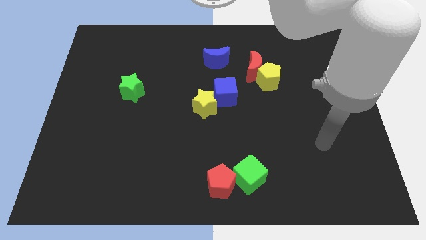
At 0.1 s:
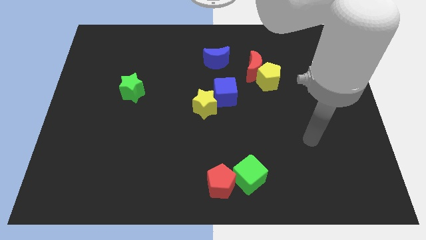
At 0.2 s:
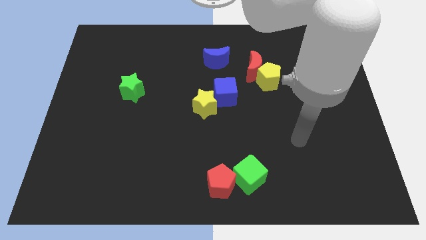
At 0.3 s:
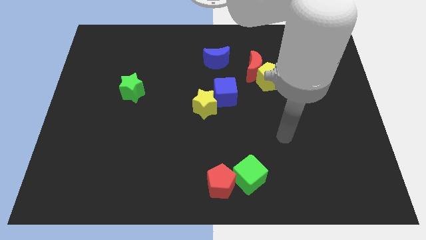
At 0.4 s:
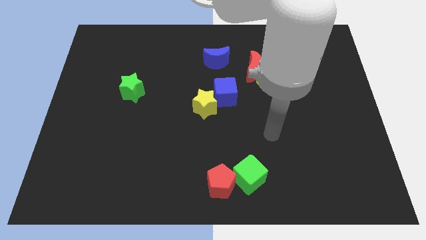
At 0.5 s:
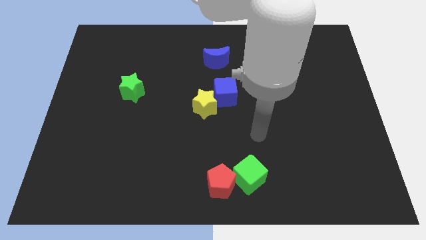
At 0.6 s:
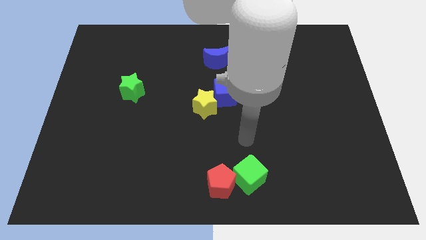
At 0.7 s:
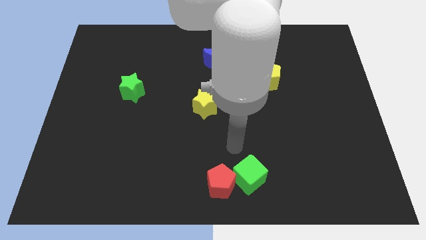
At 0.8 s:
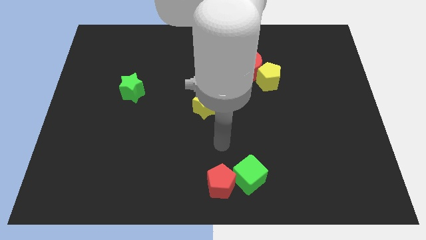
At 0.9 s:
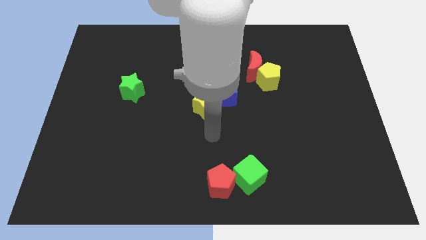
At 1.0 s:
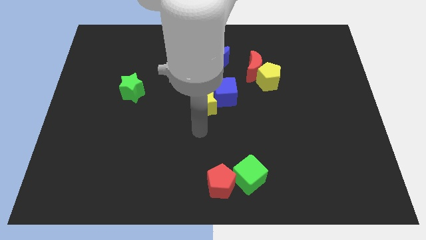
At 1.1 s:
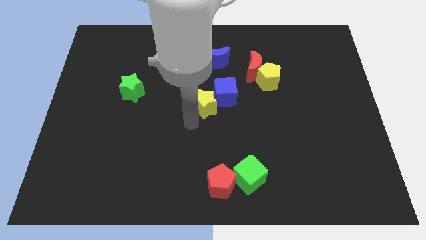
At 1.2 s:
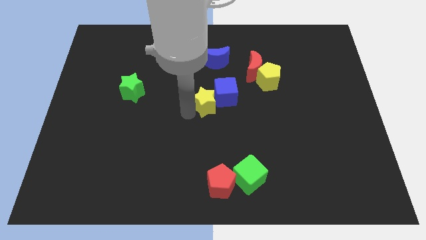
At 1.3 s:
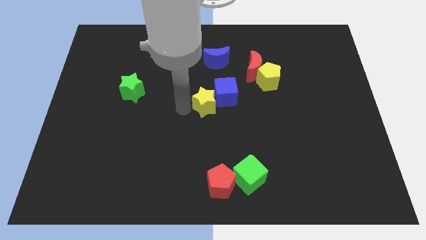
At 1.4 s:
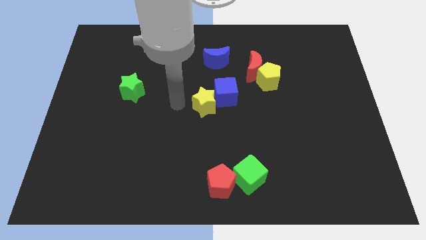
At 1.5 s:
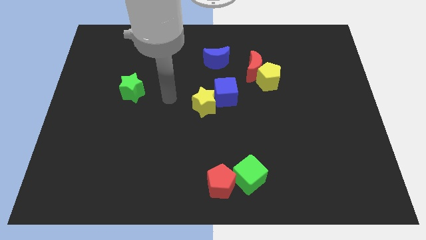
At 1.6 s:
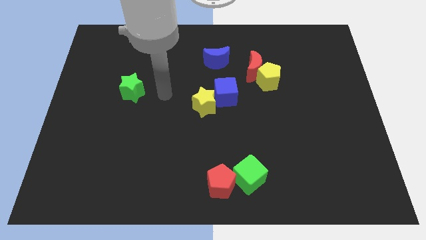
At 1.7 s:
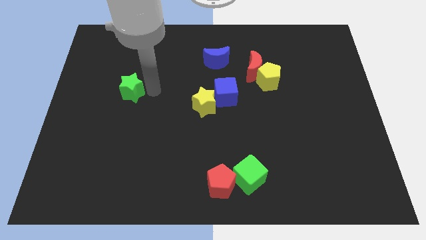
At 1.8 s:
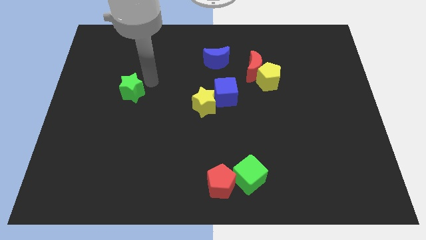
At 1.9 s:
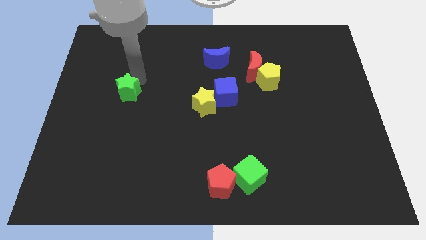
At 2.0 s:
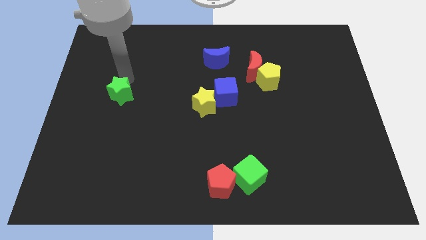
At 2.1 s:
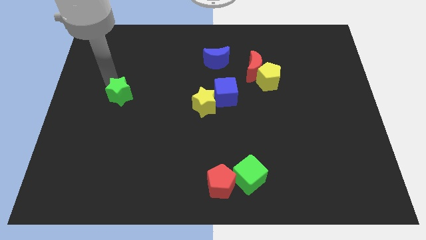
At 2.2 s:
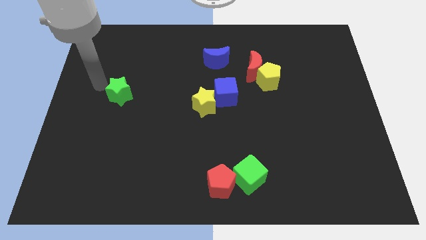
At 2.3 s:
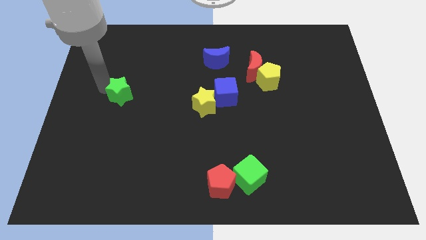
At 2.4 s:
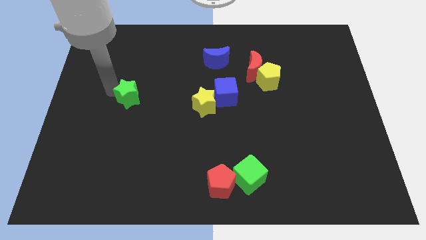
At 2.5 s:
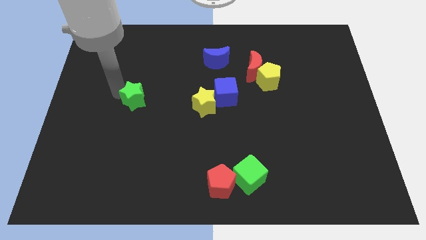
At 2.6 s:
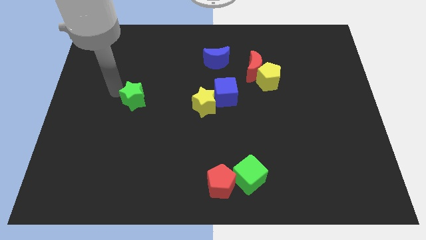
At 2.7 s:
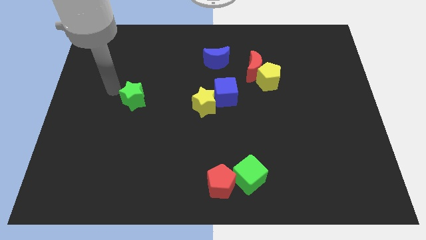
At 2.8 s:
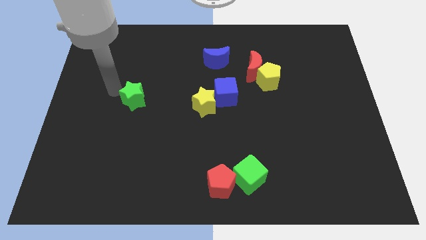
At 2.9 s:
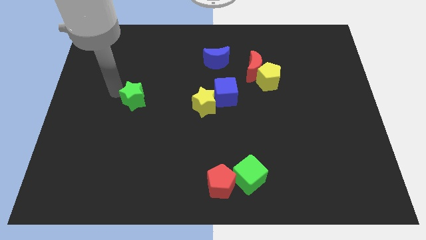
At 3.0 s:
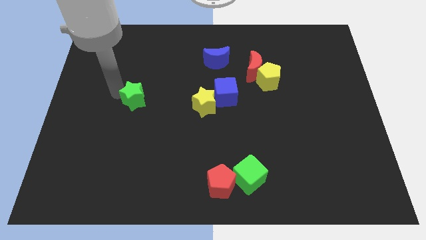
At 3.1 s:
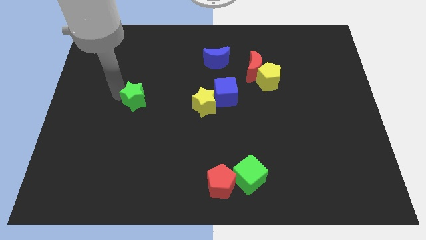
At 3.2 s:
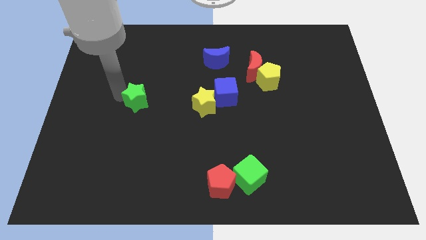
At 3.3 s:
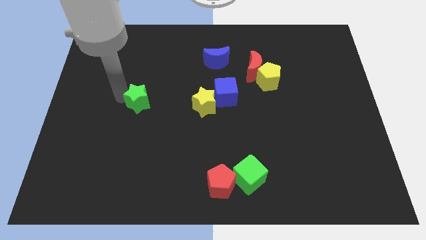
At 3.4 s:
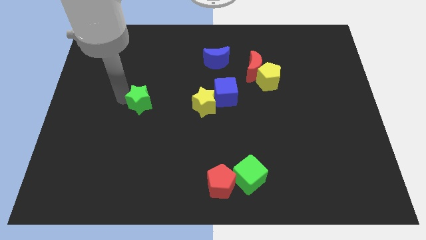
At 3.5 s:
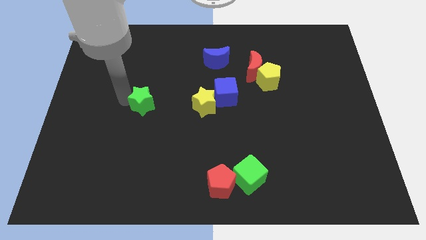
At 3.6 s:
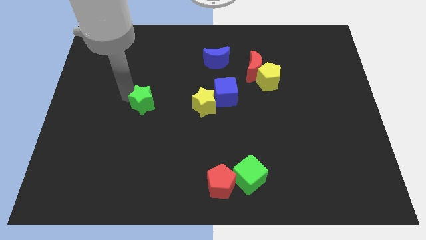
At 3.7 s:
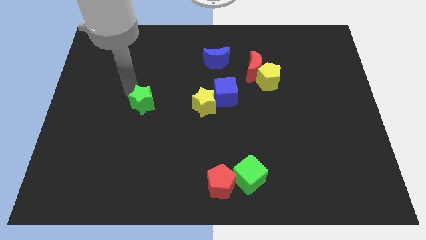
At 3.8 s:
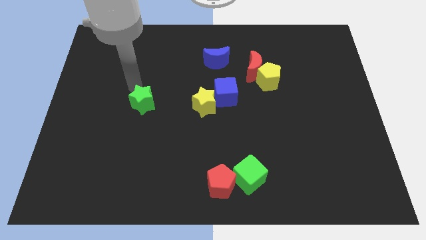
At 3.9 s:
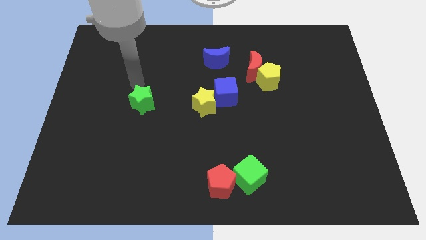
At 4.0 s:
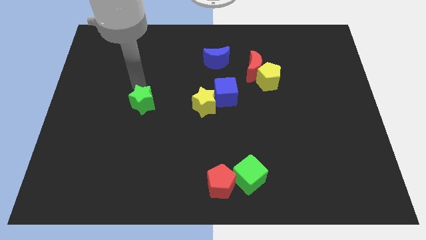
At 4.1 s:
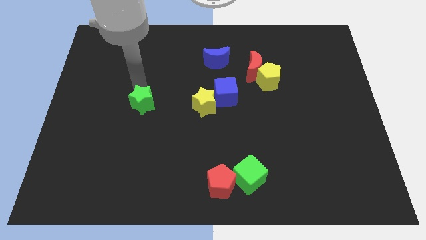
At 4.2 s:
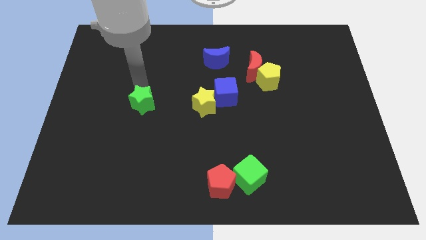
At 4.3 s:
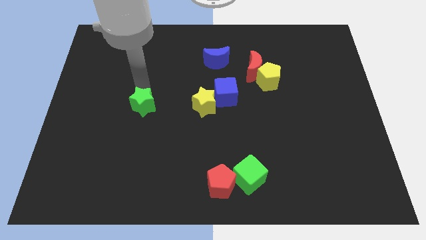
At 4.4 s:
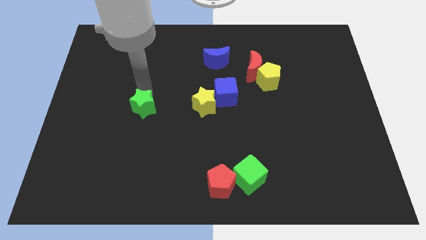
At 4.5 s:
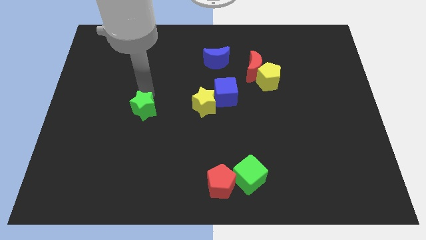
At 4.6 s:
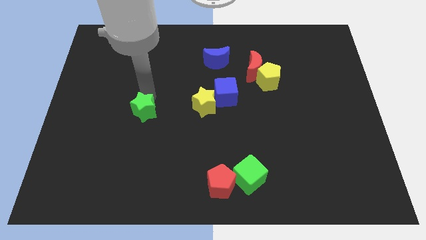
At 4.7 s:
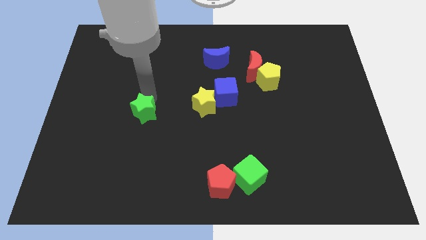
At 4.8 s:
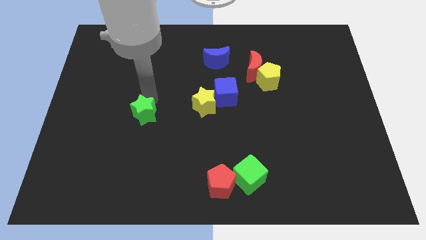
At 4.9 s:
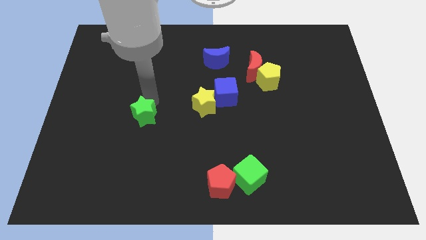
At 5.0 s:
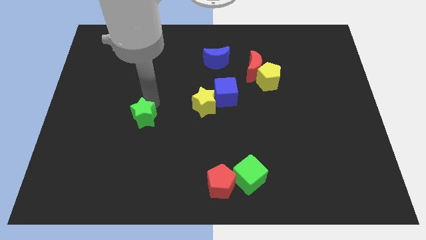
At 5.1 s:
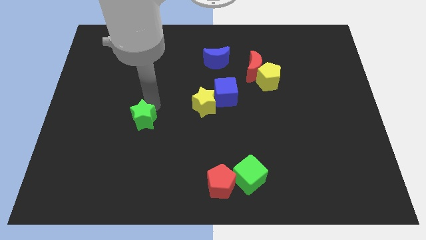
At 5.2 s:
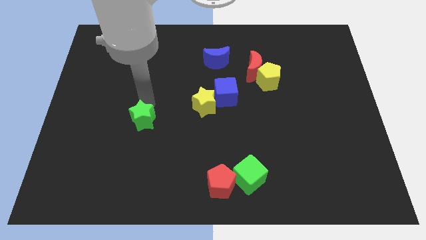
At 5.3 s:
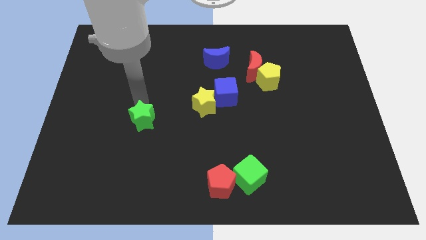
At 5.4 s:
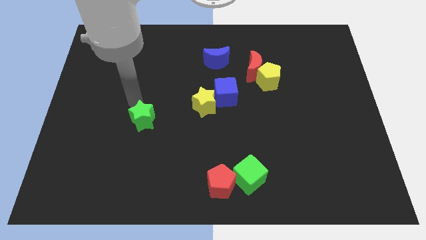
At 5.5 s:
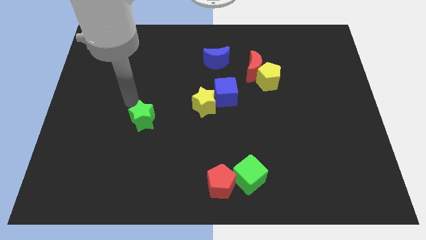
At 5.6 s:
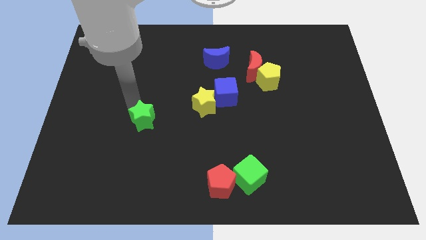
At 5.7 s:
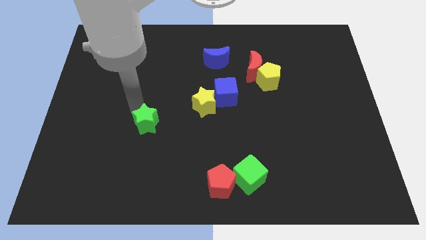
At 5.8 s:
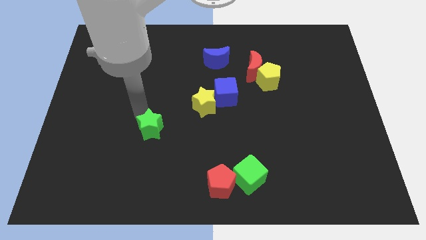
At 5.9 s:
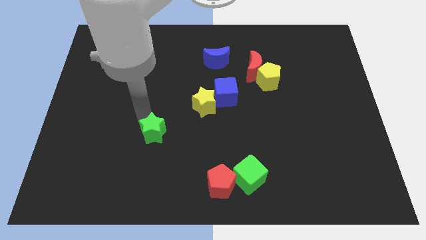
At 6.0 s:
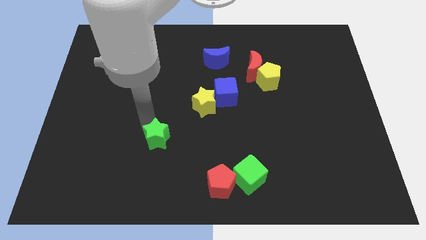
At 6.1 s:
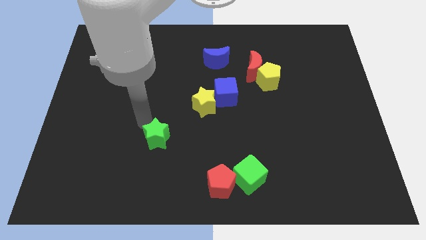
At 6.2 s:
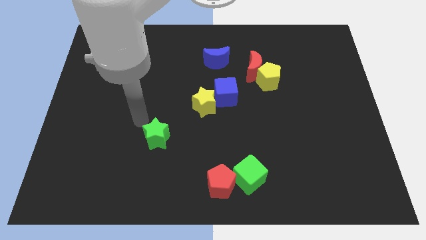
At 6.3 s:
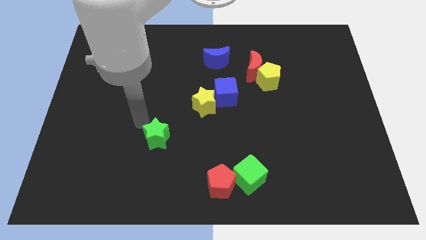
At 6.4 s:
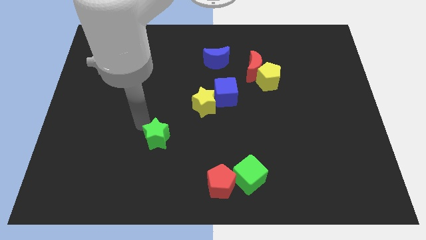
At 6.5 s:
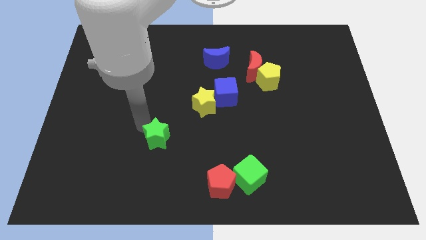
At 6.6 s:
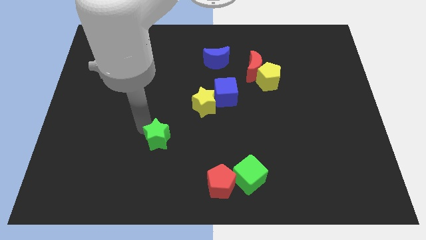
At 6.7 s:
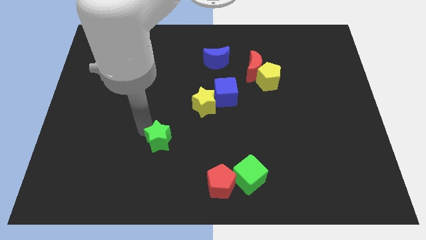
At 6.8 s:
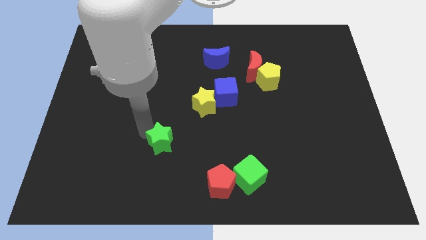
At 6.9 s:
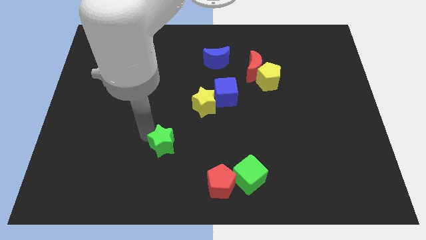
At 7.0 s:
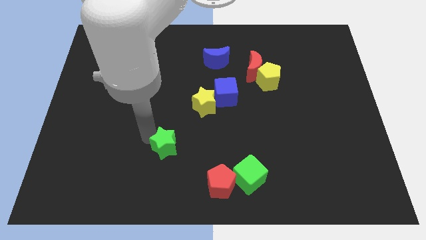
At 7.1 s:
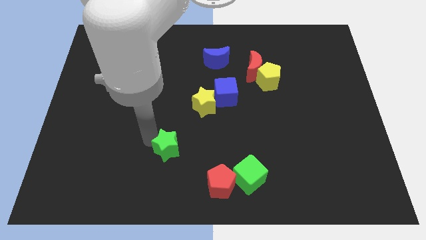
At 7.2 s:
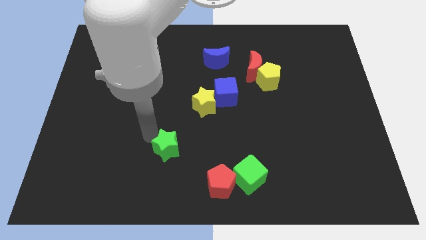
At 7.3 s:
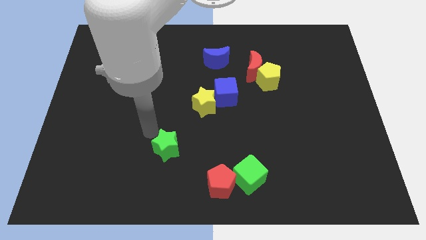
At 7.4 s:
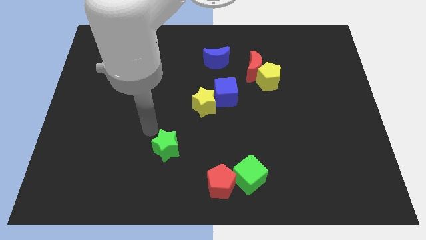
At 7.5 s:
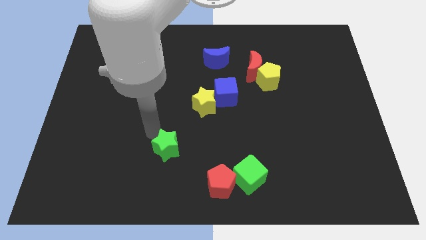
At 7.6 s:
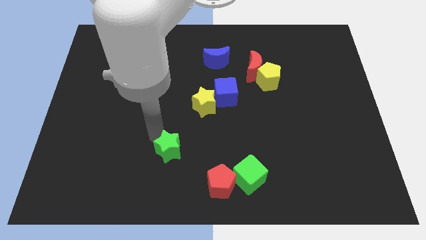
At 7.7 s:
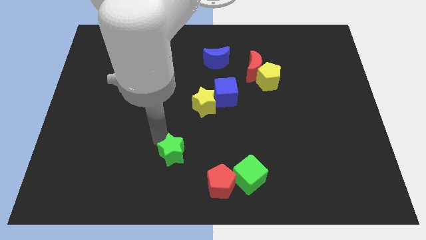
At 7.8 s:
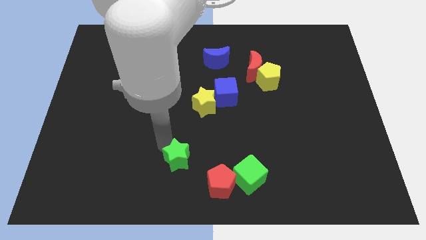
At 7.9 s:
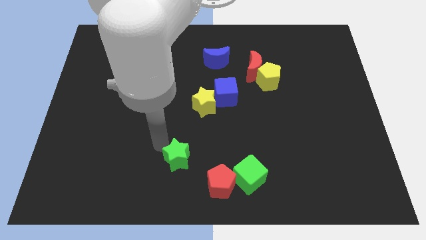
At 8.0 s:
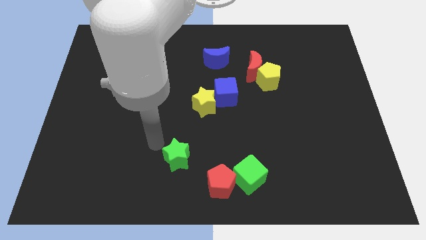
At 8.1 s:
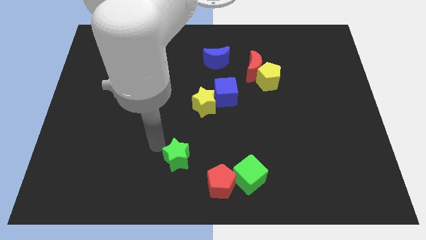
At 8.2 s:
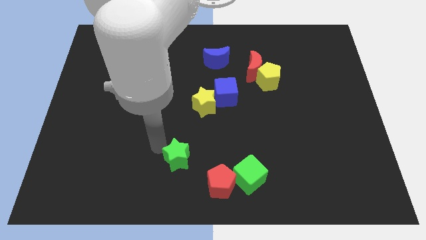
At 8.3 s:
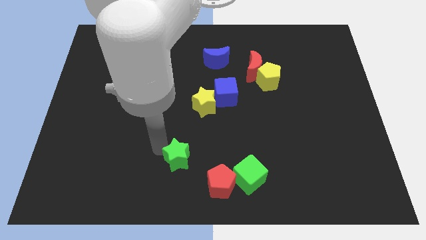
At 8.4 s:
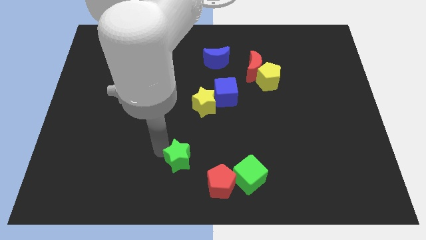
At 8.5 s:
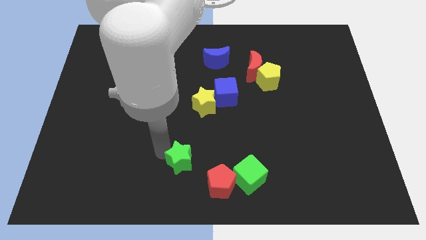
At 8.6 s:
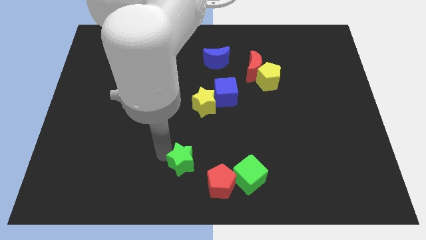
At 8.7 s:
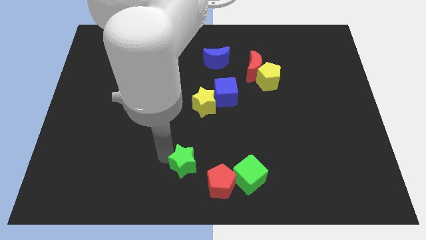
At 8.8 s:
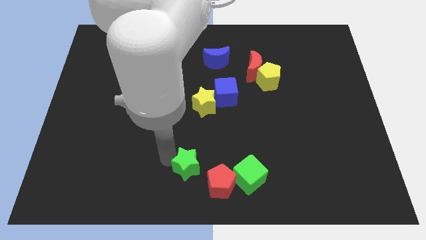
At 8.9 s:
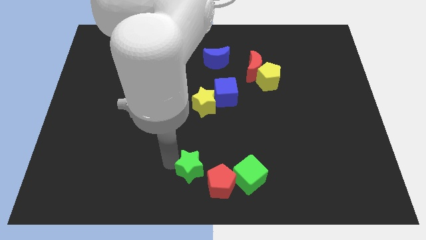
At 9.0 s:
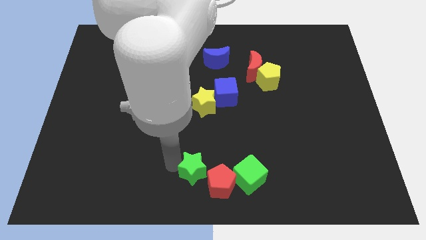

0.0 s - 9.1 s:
move the green star towards the red pentagon
